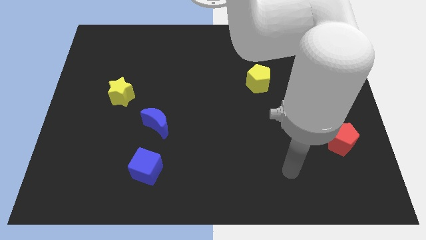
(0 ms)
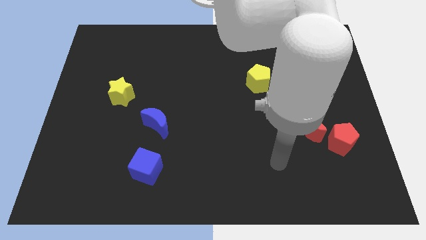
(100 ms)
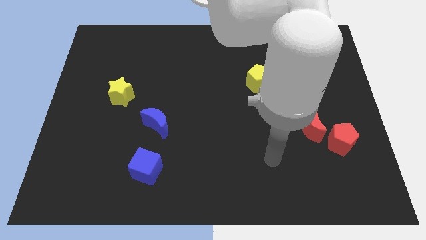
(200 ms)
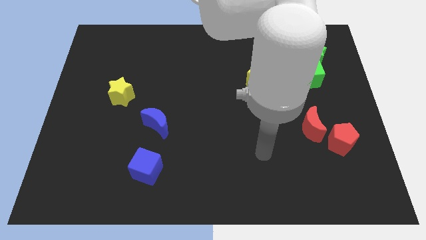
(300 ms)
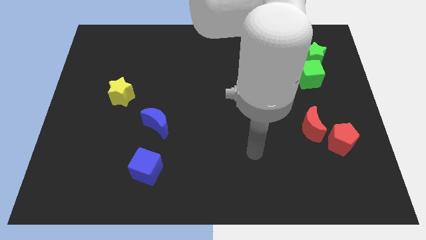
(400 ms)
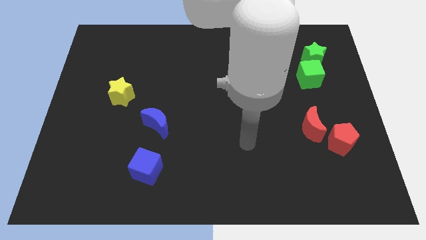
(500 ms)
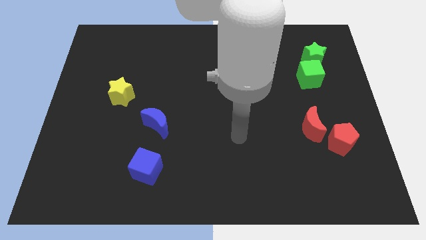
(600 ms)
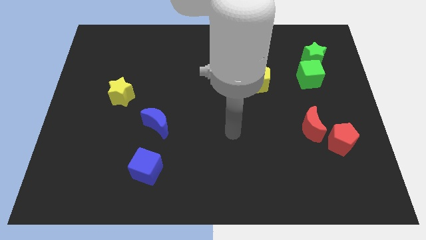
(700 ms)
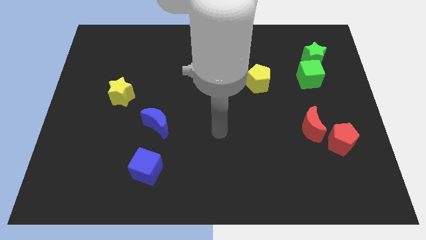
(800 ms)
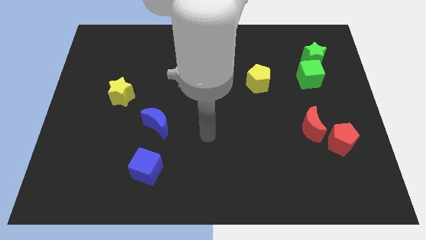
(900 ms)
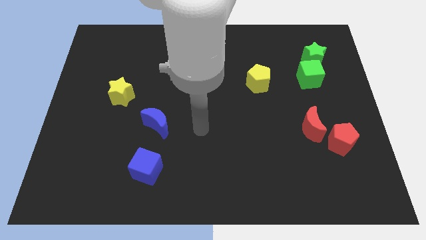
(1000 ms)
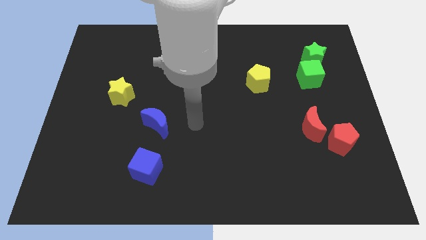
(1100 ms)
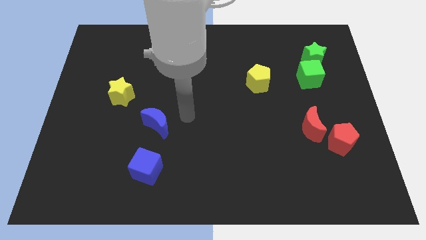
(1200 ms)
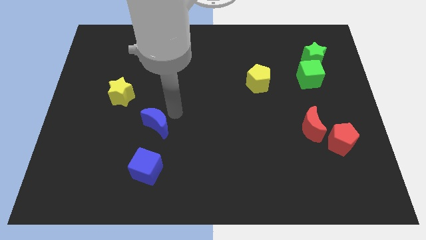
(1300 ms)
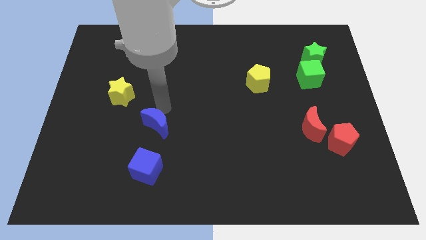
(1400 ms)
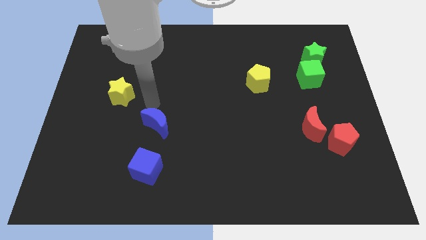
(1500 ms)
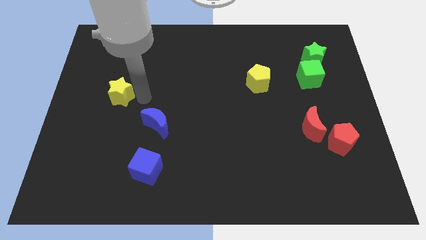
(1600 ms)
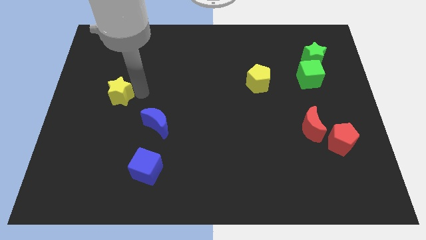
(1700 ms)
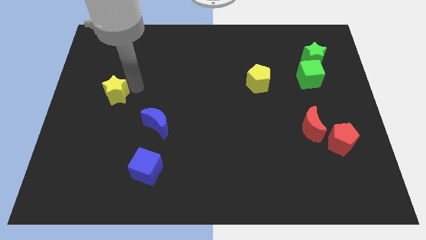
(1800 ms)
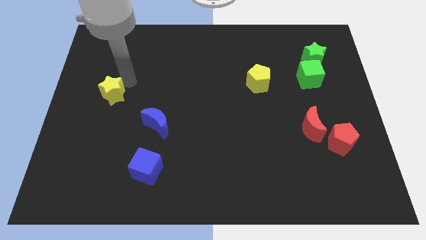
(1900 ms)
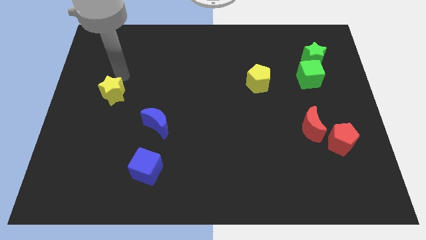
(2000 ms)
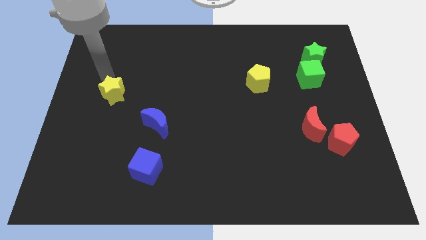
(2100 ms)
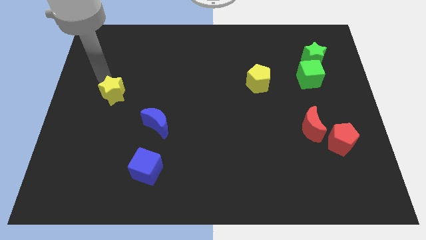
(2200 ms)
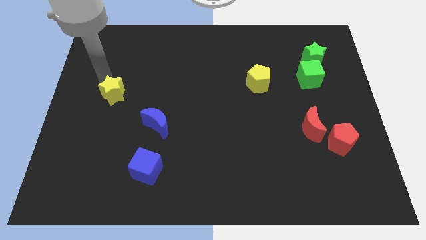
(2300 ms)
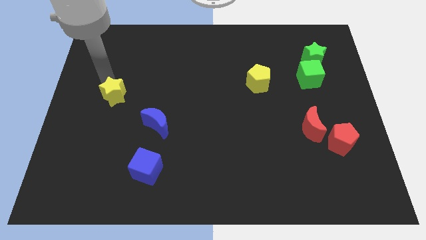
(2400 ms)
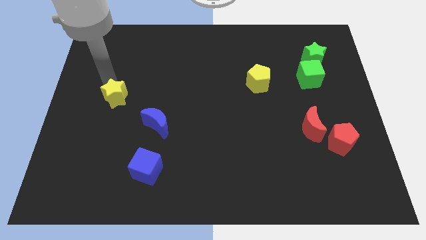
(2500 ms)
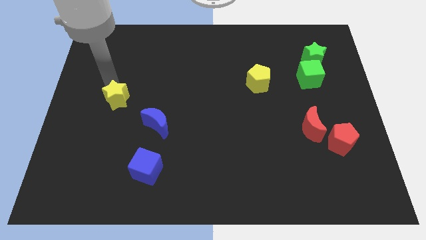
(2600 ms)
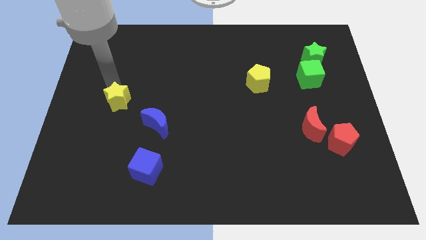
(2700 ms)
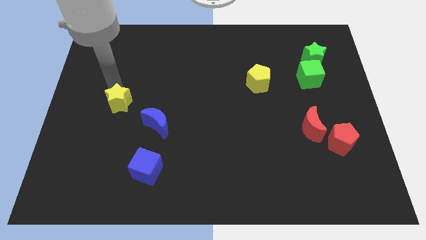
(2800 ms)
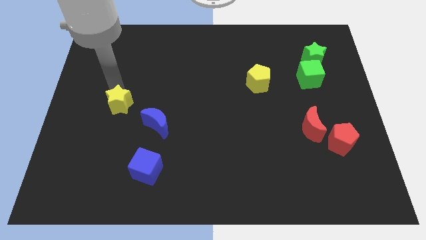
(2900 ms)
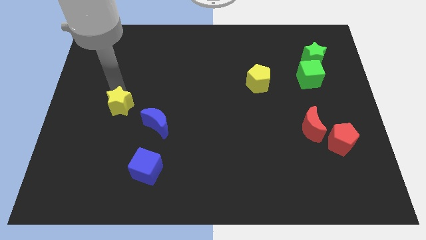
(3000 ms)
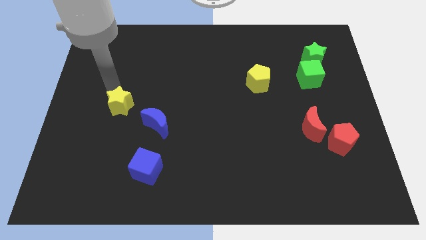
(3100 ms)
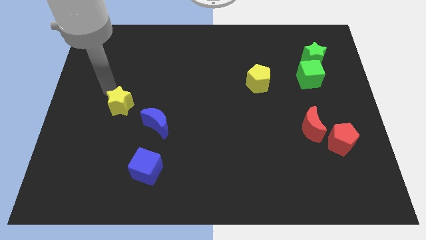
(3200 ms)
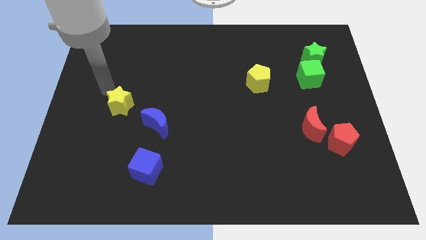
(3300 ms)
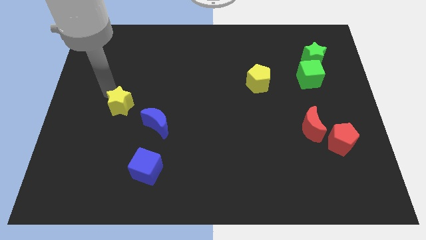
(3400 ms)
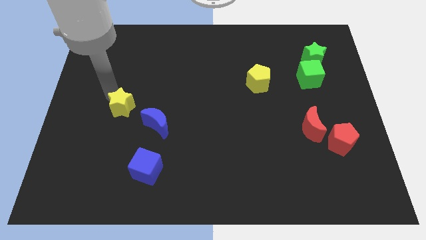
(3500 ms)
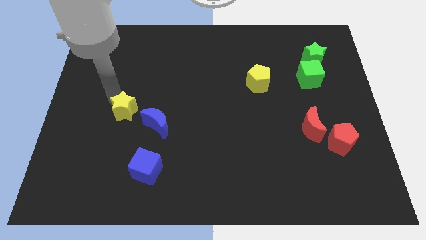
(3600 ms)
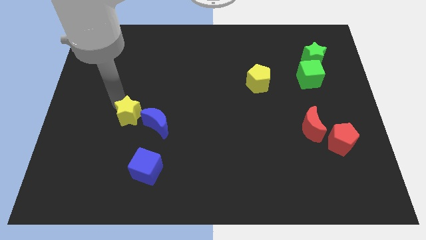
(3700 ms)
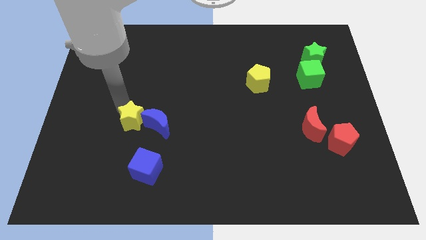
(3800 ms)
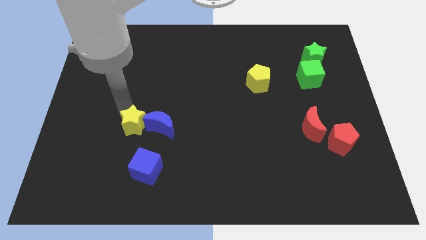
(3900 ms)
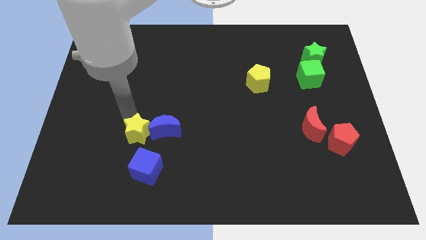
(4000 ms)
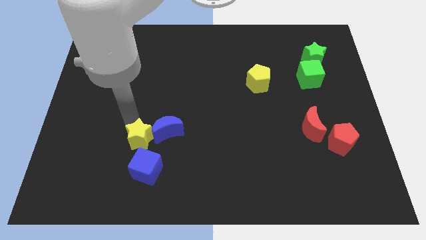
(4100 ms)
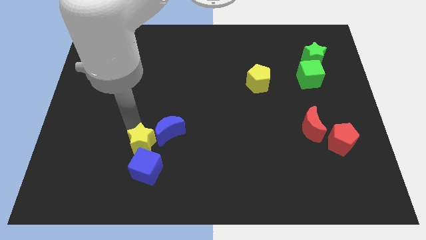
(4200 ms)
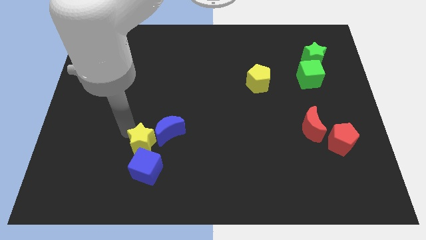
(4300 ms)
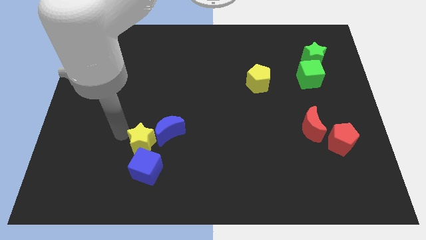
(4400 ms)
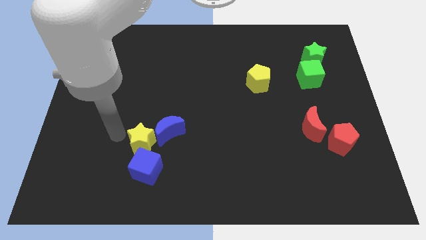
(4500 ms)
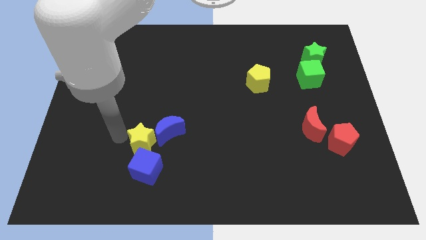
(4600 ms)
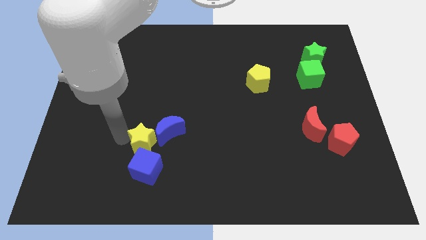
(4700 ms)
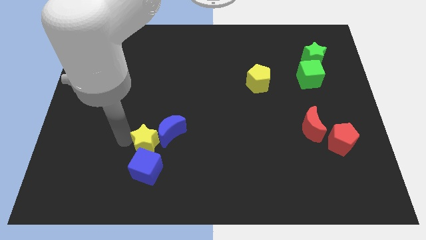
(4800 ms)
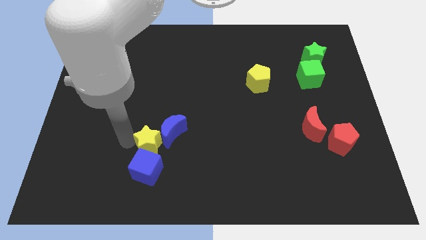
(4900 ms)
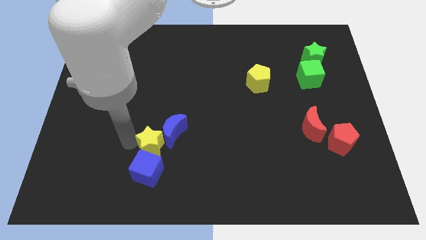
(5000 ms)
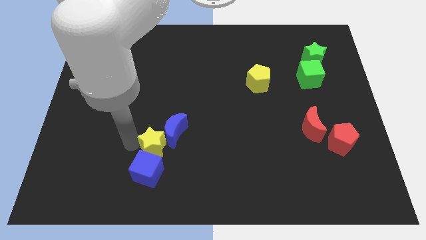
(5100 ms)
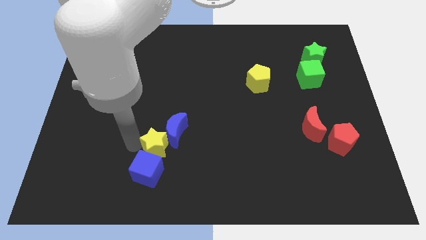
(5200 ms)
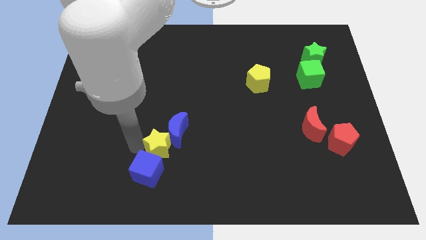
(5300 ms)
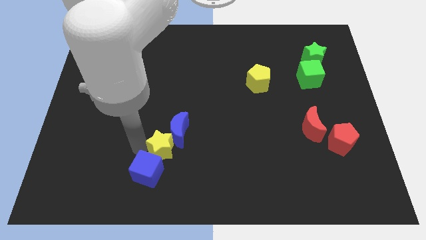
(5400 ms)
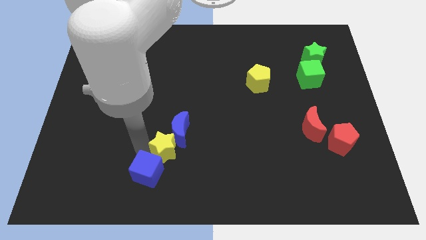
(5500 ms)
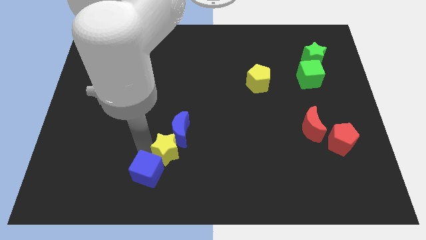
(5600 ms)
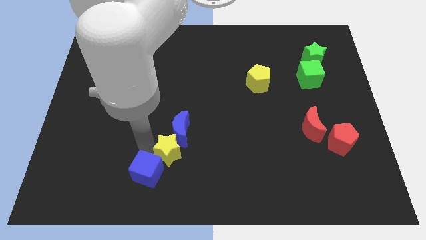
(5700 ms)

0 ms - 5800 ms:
slide the yellow star downwards and then to the right

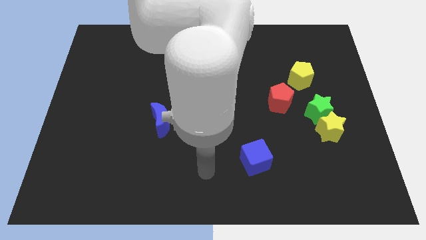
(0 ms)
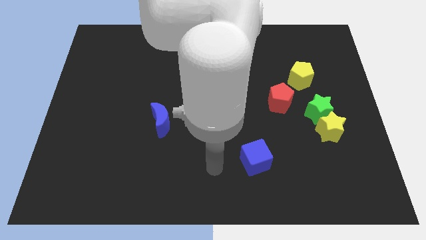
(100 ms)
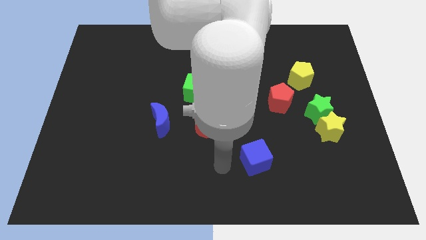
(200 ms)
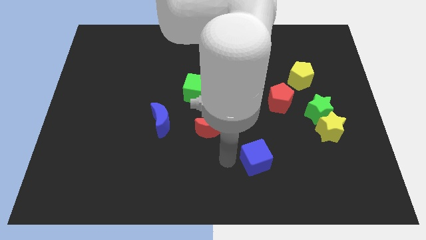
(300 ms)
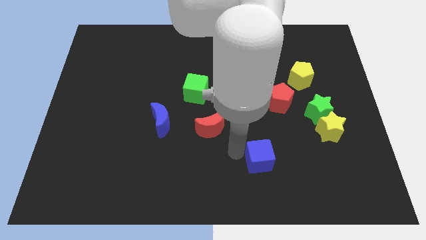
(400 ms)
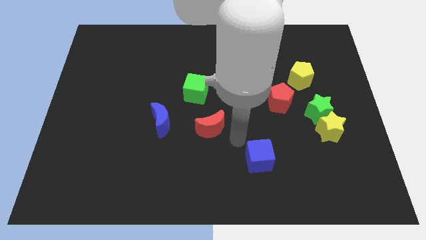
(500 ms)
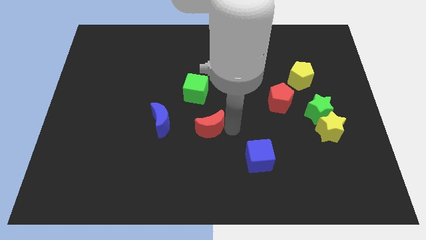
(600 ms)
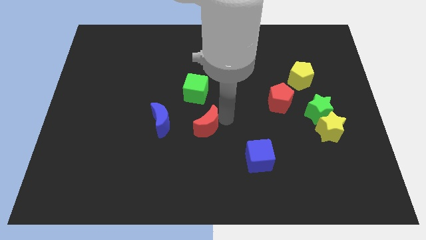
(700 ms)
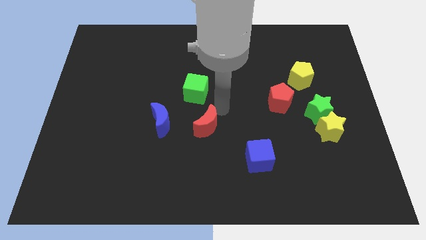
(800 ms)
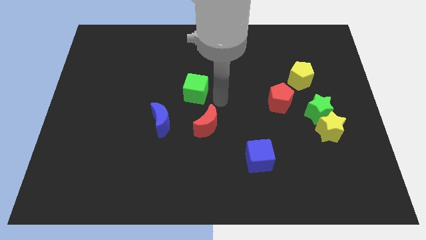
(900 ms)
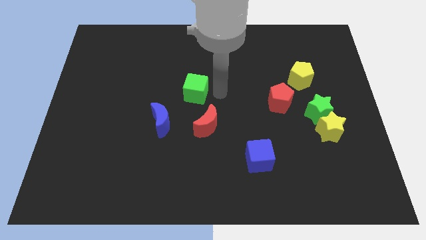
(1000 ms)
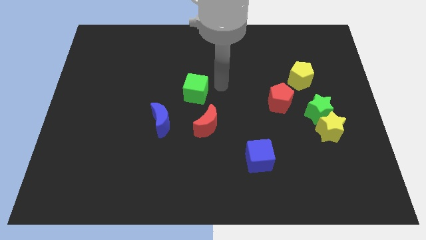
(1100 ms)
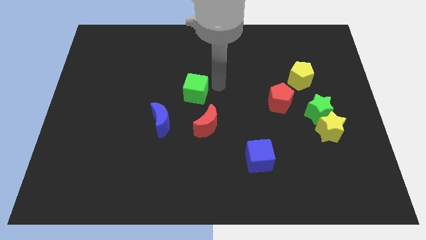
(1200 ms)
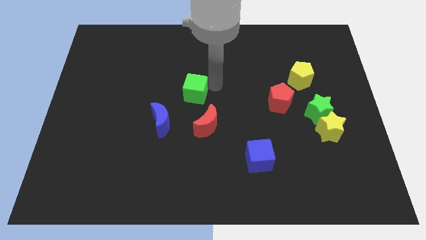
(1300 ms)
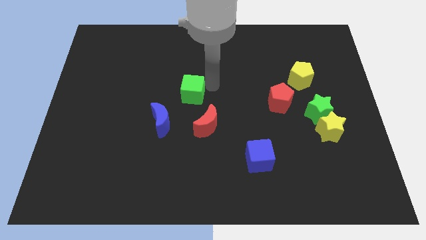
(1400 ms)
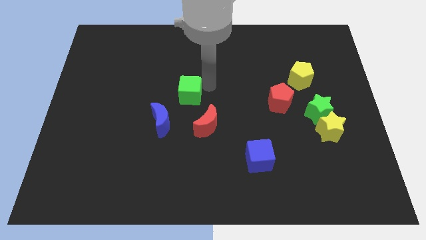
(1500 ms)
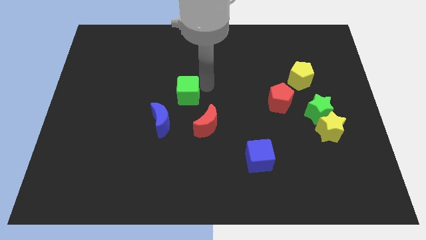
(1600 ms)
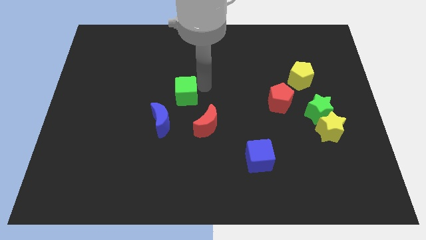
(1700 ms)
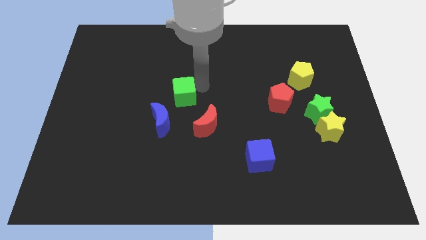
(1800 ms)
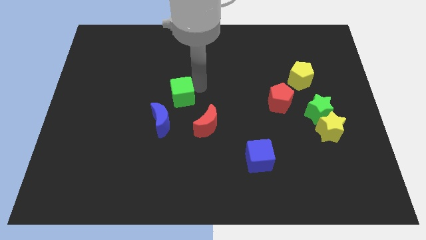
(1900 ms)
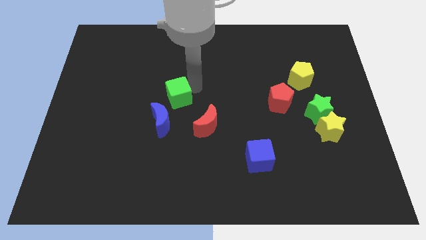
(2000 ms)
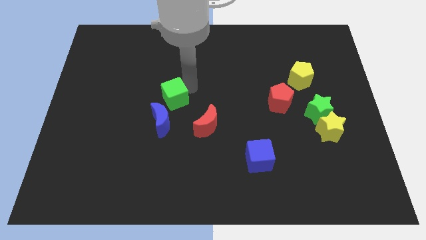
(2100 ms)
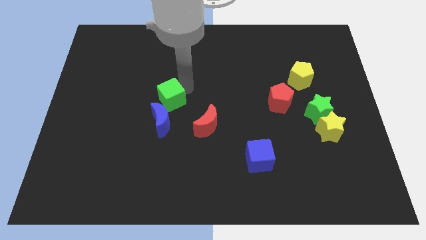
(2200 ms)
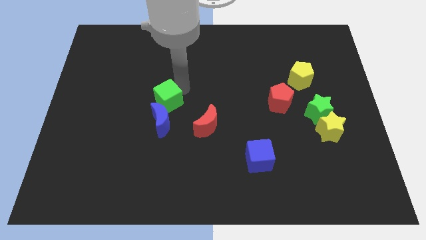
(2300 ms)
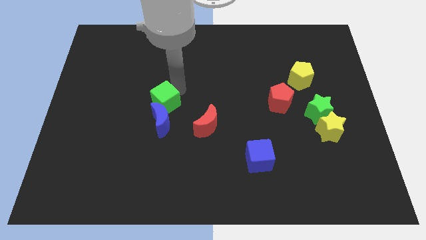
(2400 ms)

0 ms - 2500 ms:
move the green cube diagonally downwards and left slightly
